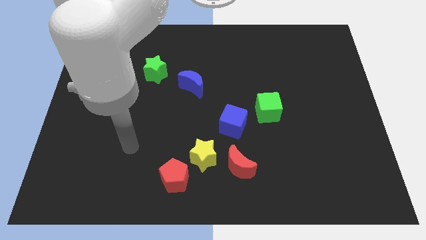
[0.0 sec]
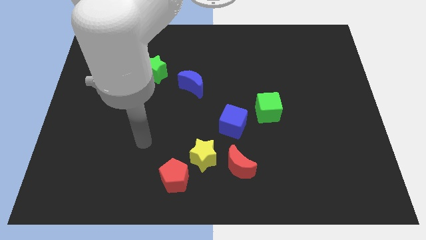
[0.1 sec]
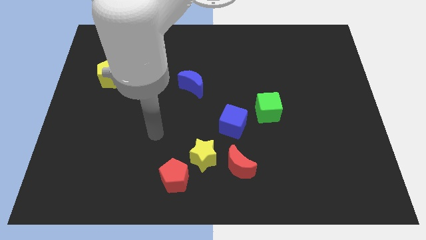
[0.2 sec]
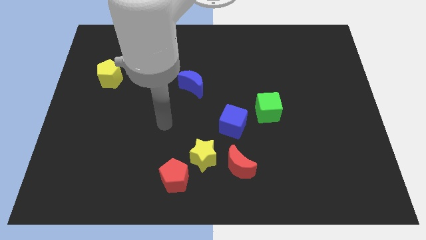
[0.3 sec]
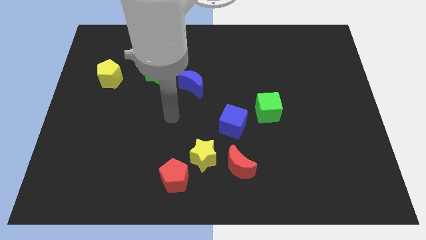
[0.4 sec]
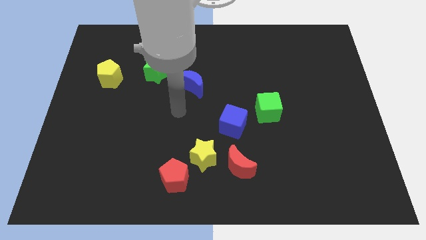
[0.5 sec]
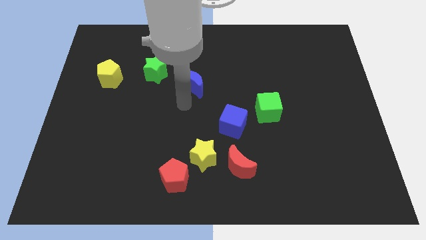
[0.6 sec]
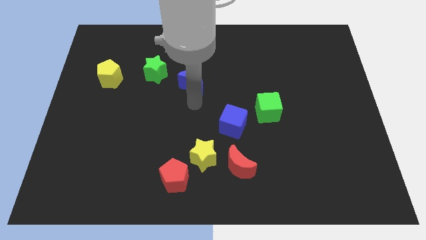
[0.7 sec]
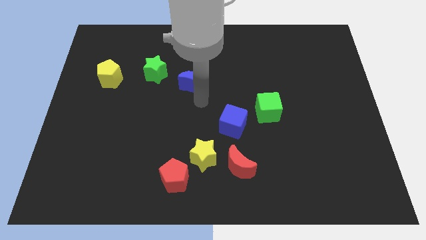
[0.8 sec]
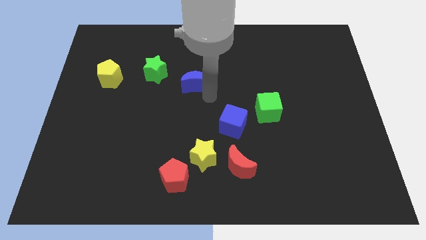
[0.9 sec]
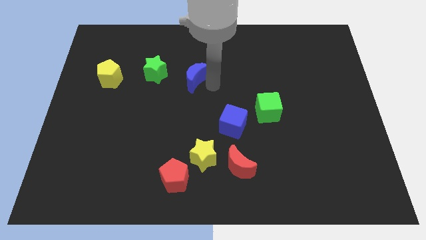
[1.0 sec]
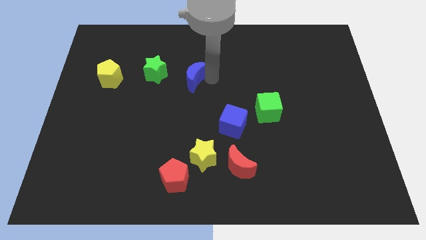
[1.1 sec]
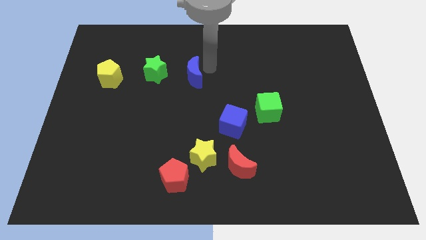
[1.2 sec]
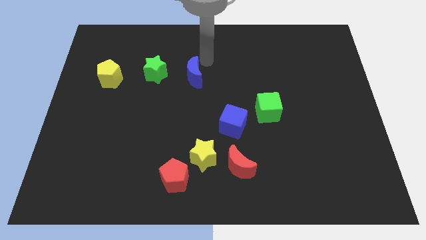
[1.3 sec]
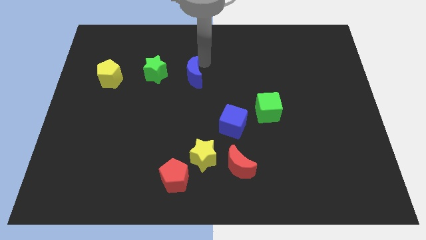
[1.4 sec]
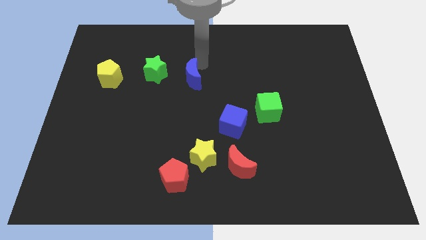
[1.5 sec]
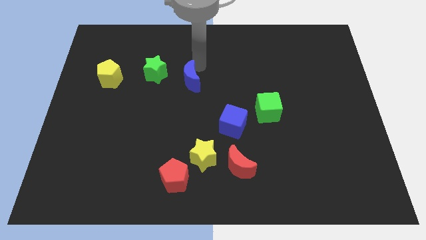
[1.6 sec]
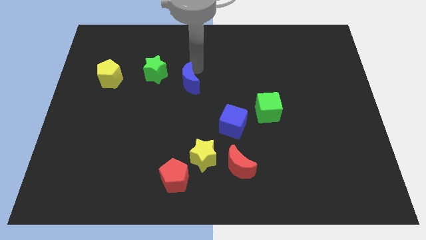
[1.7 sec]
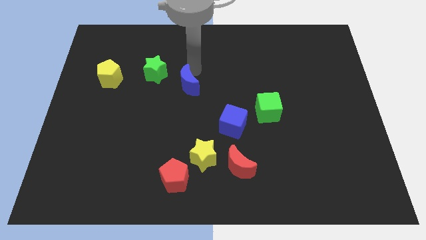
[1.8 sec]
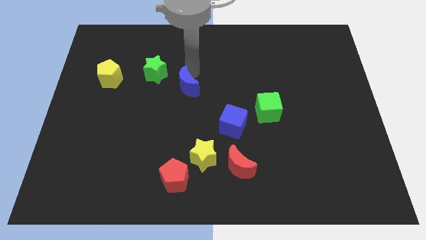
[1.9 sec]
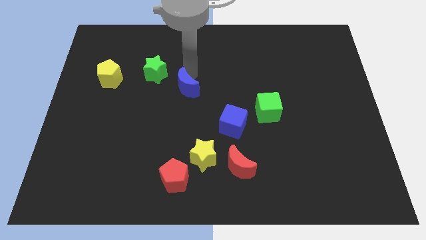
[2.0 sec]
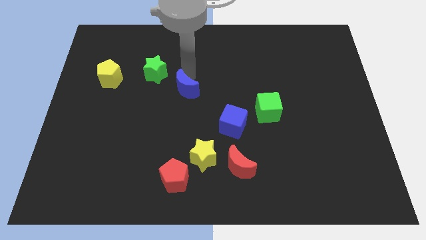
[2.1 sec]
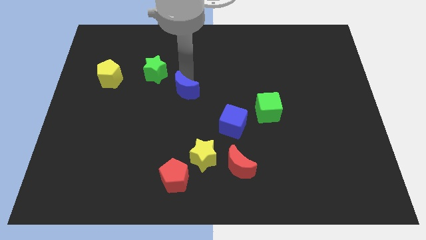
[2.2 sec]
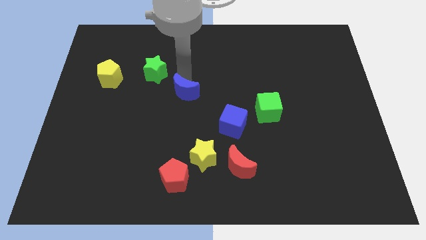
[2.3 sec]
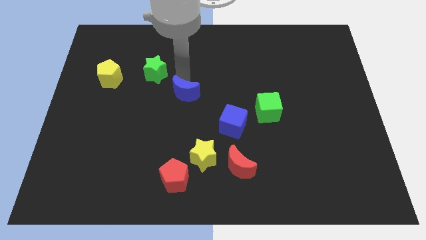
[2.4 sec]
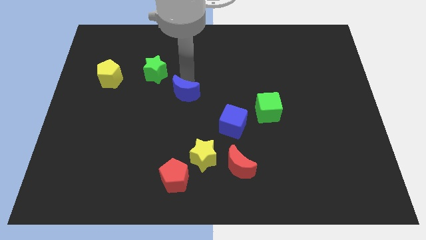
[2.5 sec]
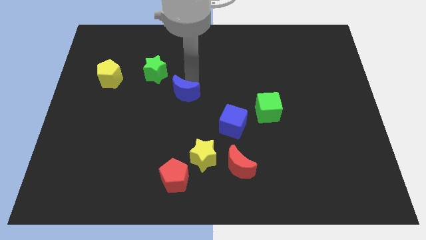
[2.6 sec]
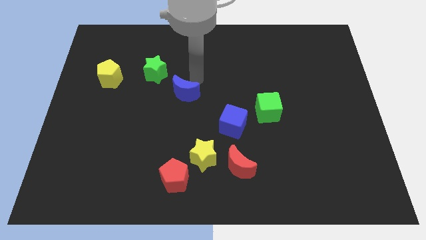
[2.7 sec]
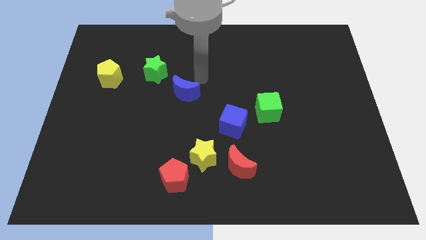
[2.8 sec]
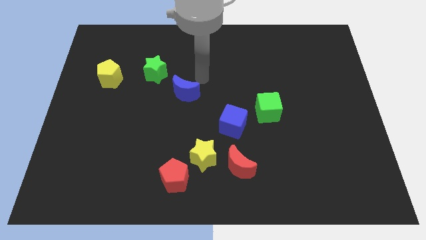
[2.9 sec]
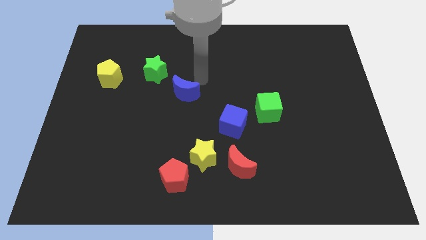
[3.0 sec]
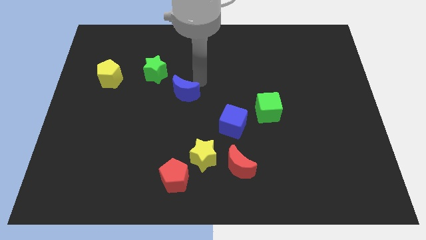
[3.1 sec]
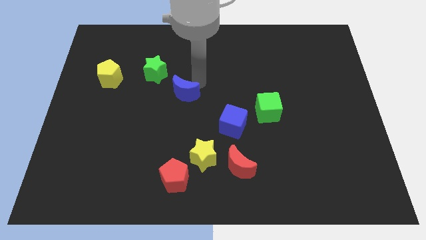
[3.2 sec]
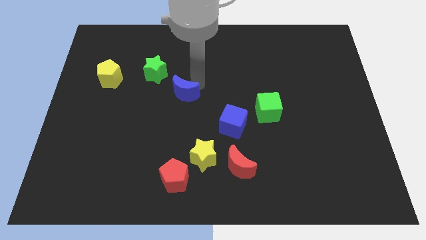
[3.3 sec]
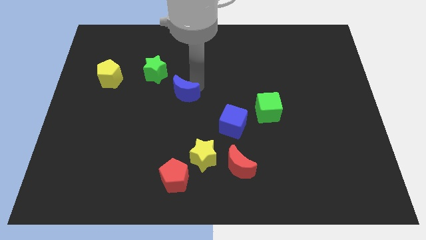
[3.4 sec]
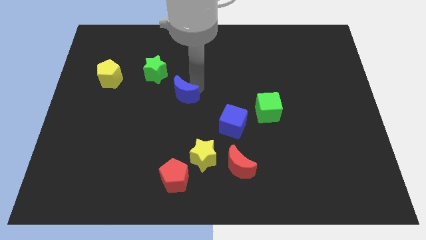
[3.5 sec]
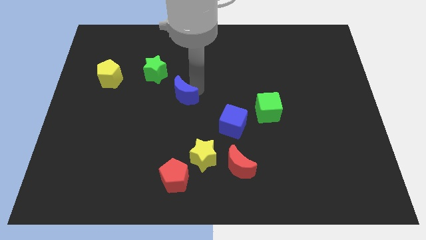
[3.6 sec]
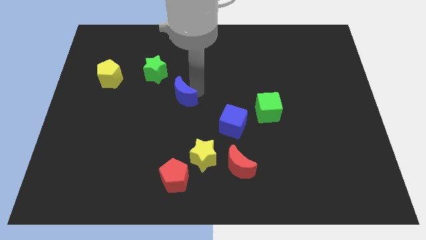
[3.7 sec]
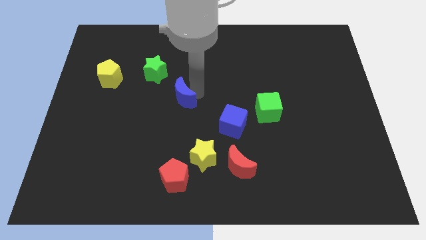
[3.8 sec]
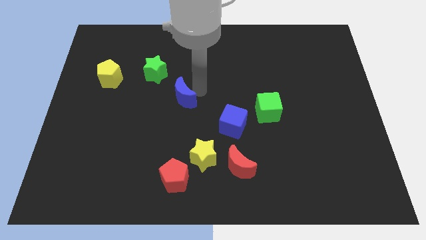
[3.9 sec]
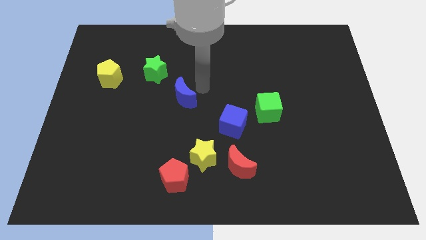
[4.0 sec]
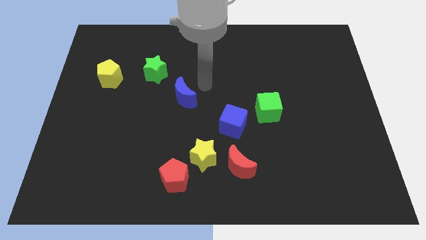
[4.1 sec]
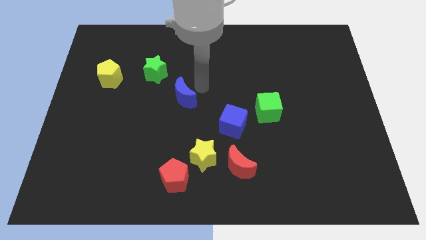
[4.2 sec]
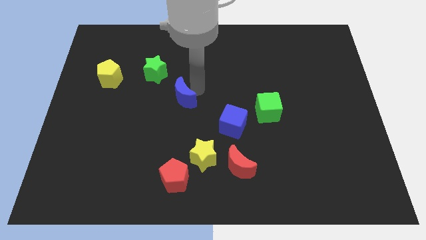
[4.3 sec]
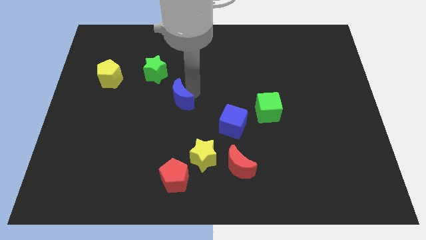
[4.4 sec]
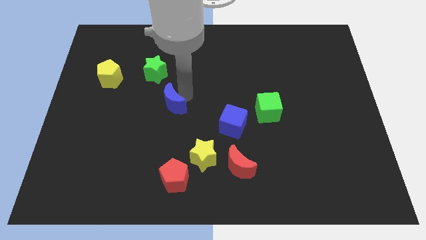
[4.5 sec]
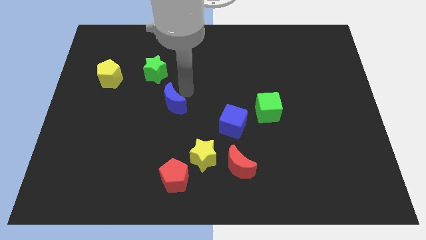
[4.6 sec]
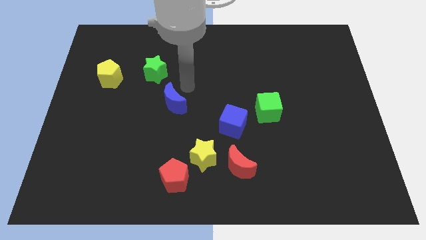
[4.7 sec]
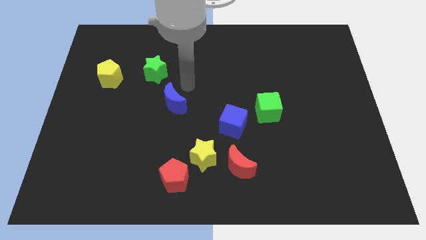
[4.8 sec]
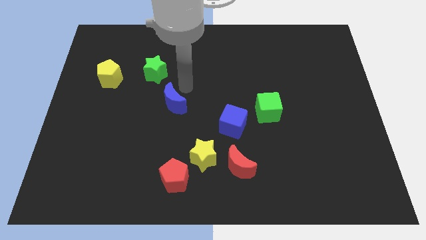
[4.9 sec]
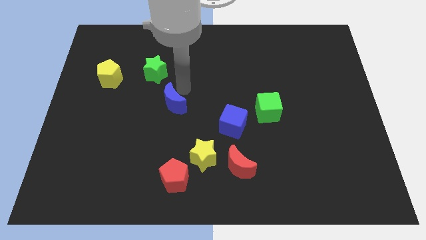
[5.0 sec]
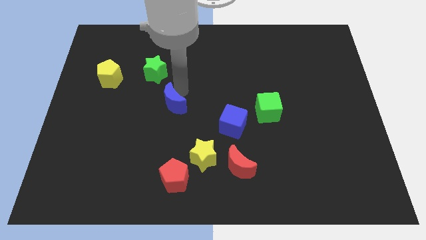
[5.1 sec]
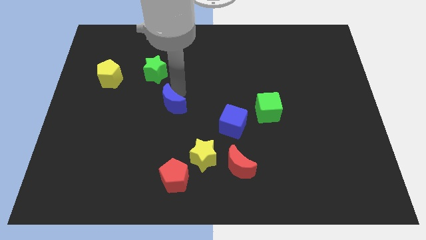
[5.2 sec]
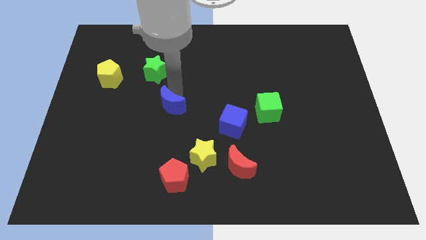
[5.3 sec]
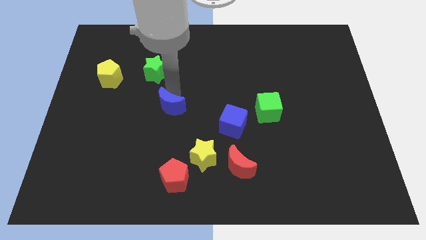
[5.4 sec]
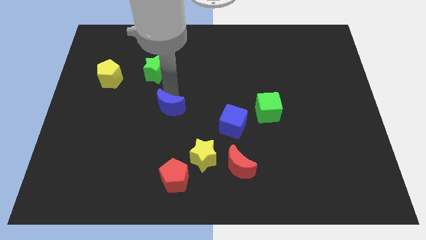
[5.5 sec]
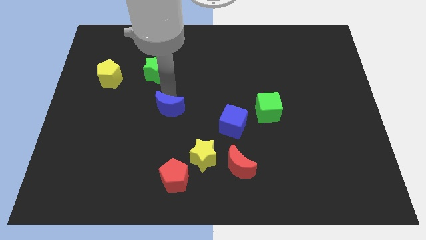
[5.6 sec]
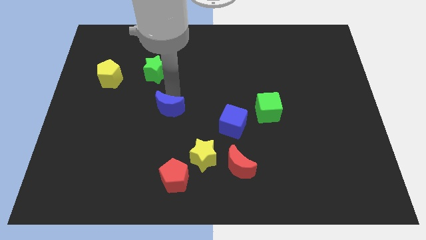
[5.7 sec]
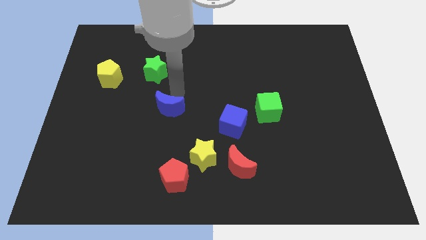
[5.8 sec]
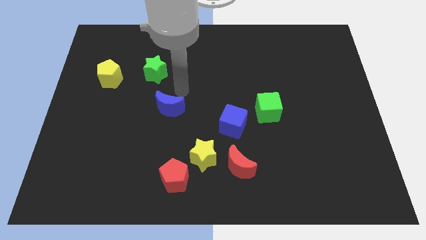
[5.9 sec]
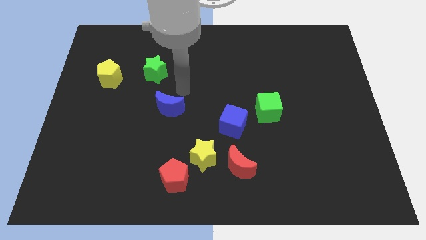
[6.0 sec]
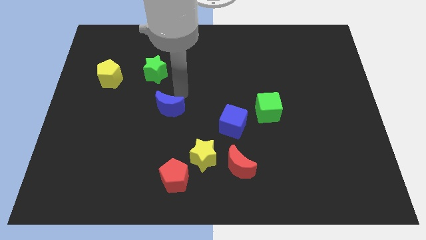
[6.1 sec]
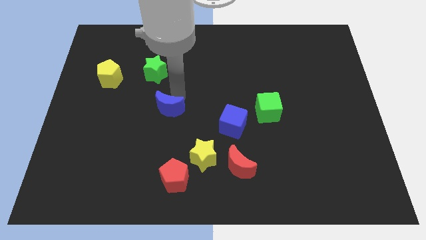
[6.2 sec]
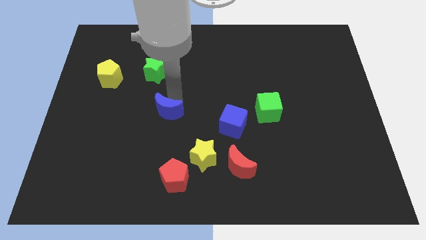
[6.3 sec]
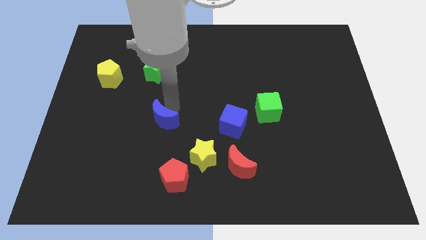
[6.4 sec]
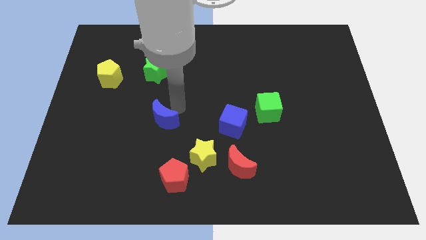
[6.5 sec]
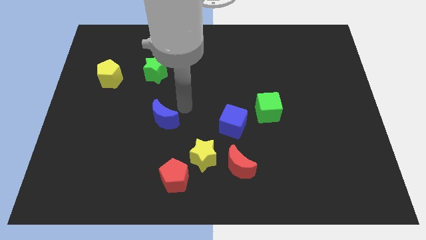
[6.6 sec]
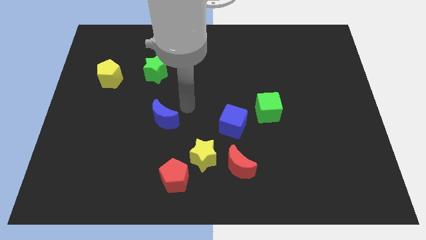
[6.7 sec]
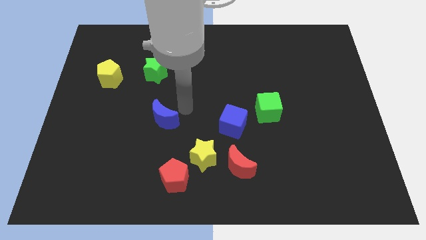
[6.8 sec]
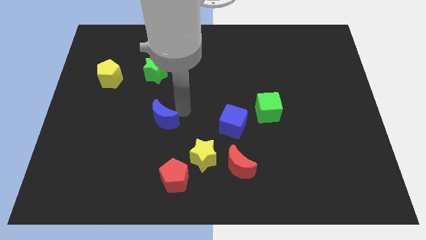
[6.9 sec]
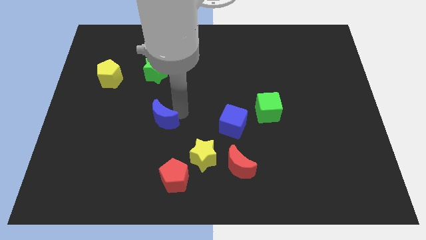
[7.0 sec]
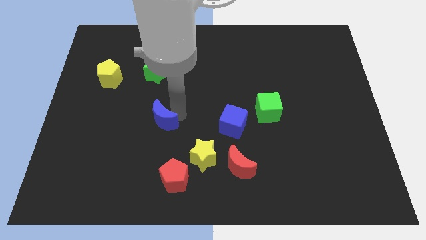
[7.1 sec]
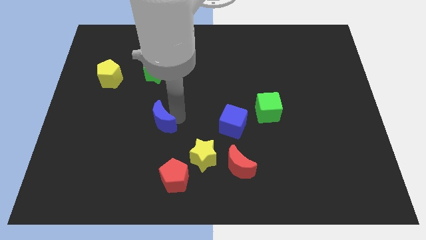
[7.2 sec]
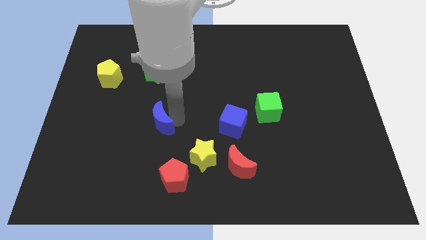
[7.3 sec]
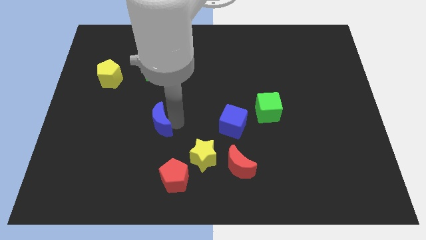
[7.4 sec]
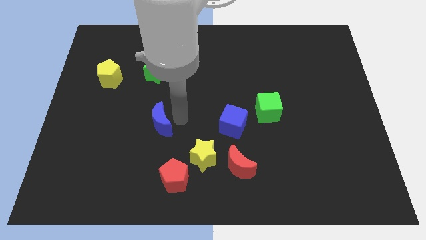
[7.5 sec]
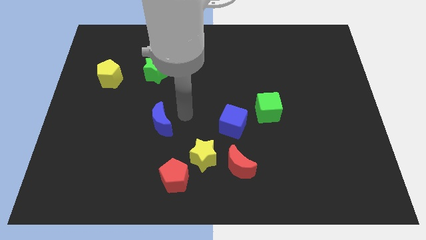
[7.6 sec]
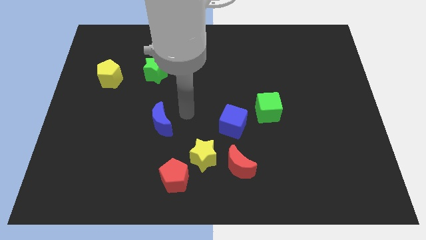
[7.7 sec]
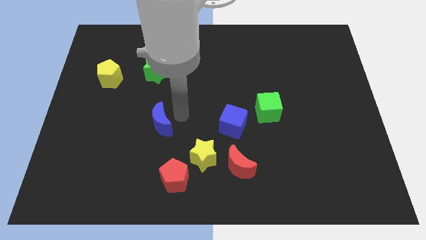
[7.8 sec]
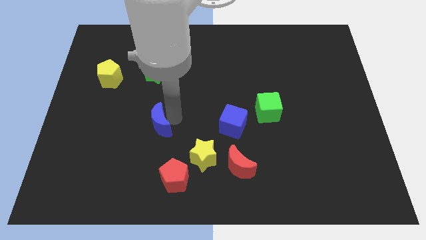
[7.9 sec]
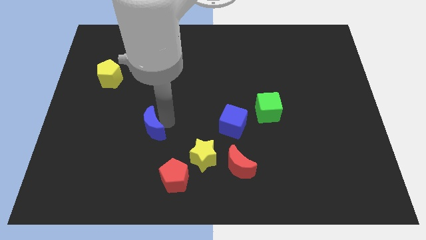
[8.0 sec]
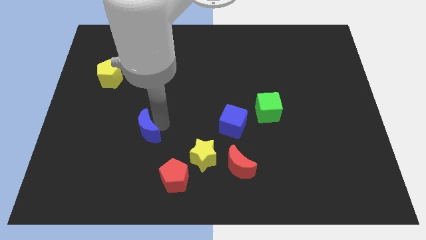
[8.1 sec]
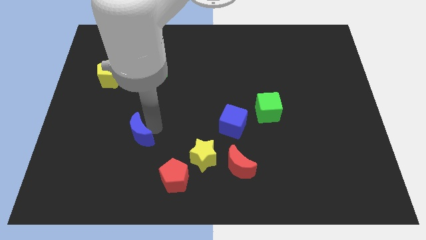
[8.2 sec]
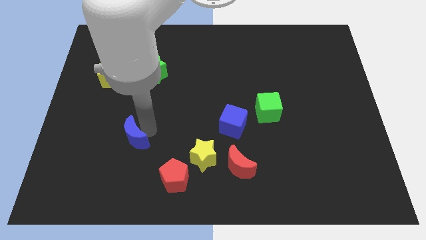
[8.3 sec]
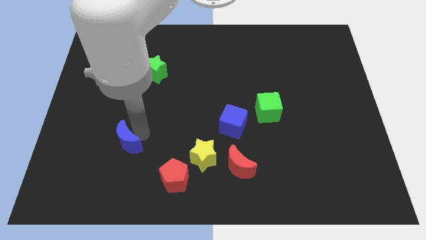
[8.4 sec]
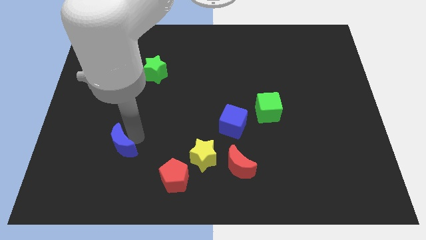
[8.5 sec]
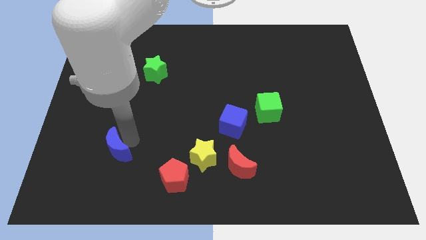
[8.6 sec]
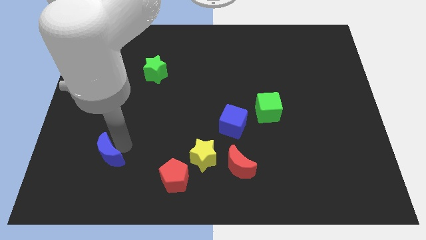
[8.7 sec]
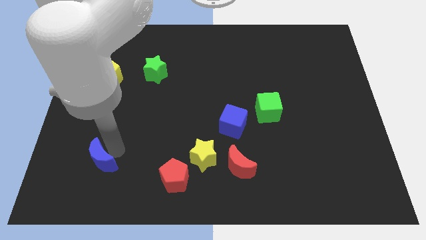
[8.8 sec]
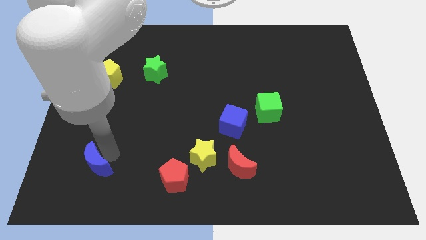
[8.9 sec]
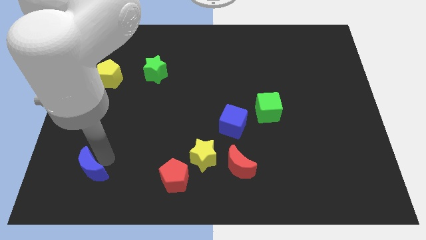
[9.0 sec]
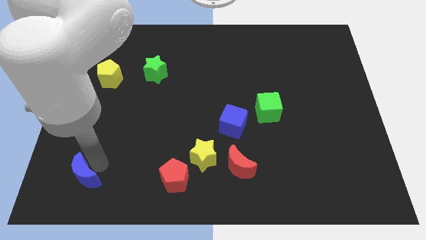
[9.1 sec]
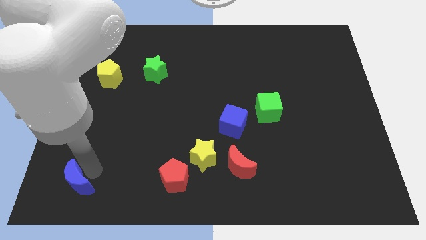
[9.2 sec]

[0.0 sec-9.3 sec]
slide the blue moon to the bottom left corner
